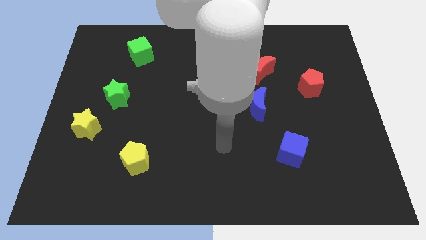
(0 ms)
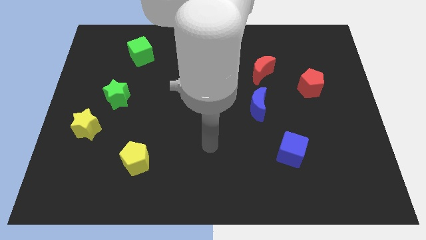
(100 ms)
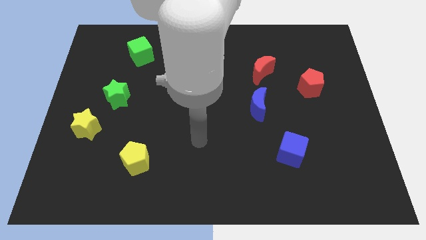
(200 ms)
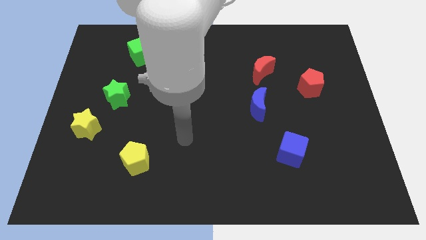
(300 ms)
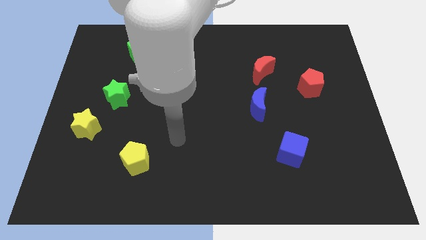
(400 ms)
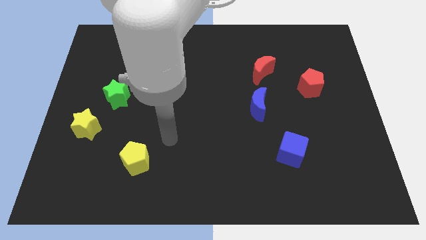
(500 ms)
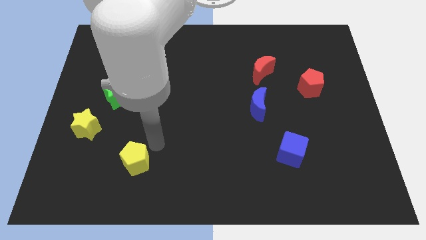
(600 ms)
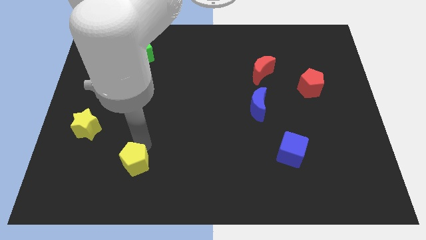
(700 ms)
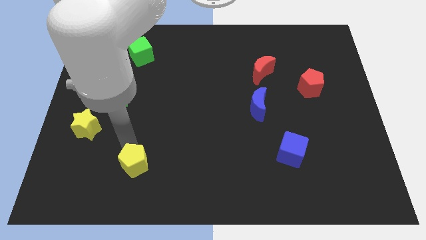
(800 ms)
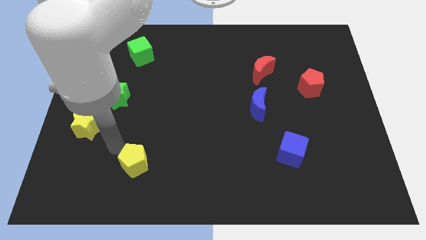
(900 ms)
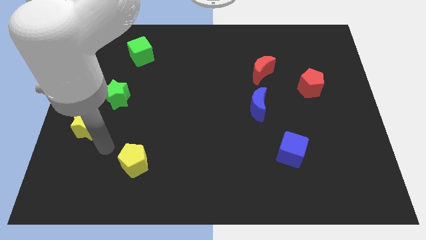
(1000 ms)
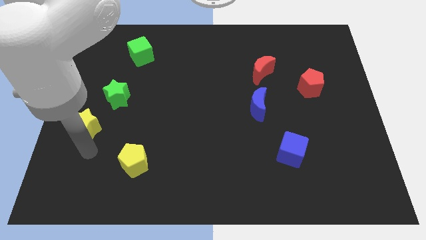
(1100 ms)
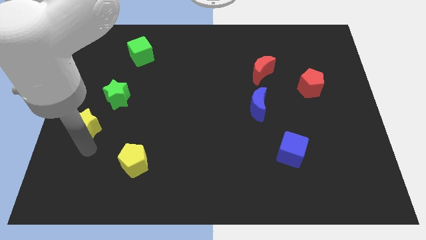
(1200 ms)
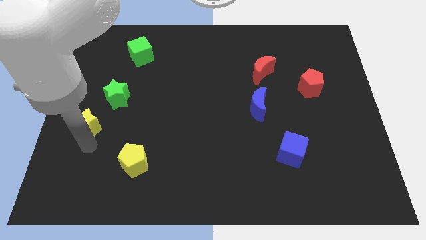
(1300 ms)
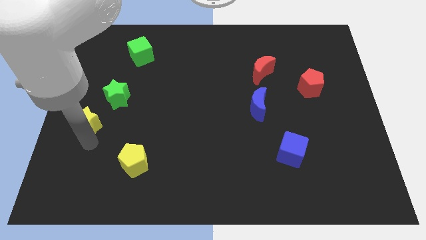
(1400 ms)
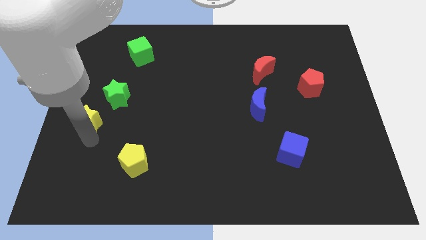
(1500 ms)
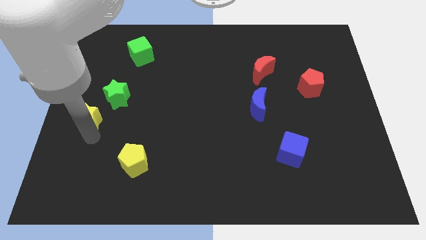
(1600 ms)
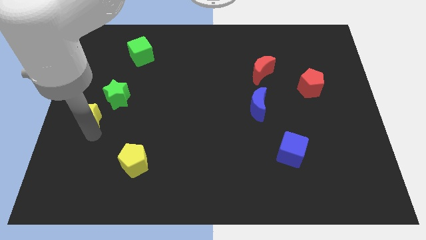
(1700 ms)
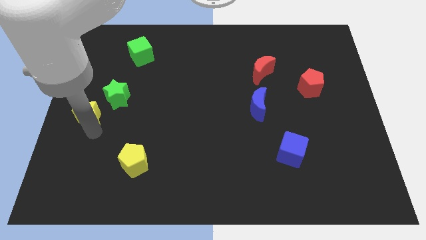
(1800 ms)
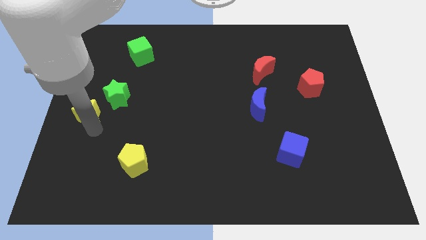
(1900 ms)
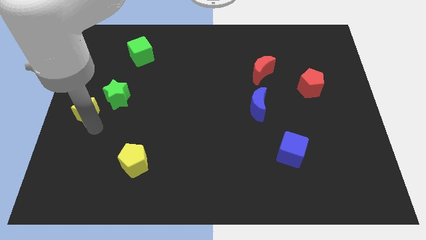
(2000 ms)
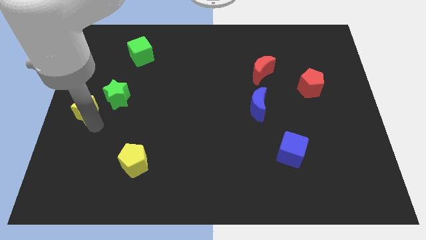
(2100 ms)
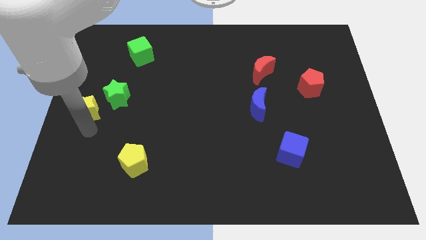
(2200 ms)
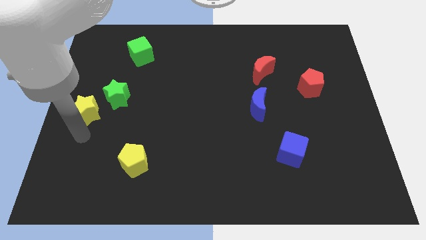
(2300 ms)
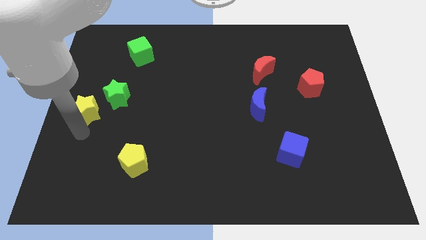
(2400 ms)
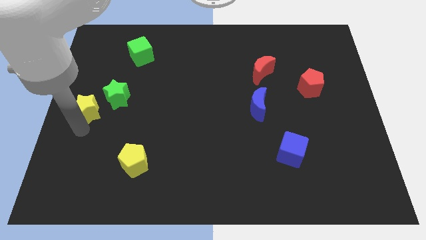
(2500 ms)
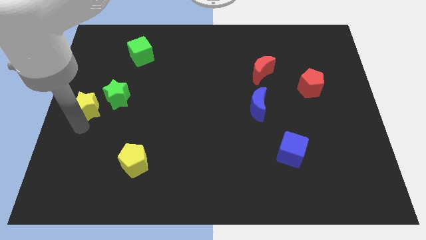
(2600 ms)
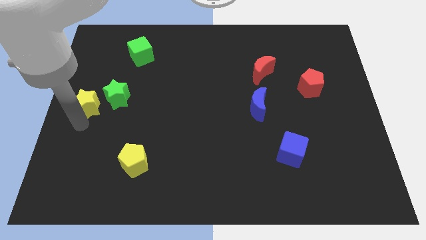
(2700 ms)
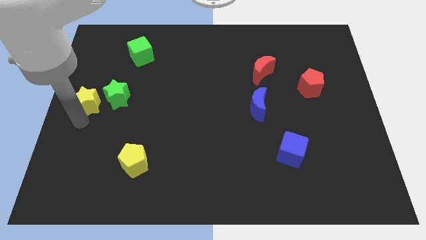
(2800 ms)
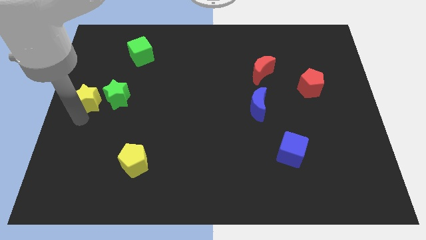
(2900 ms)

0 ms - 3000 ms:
slide the yellow star a little bit up

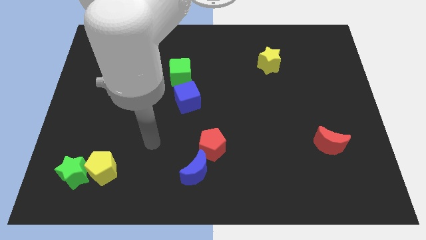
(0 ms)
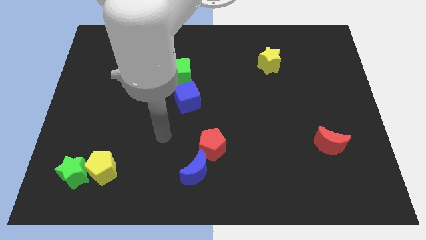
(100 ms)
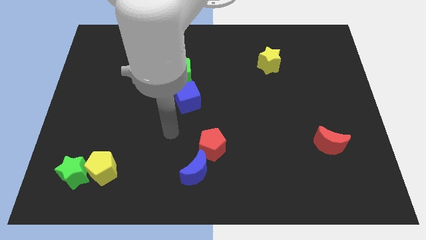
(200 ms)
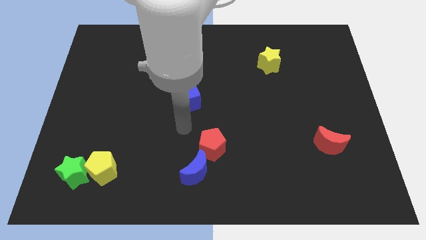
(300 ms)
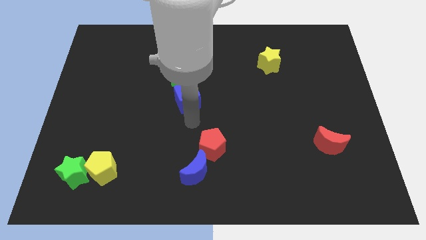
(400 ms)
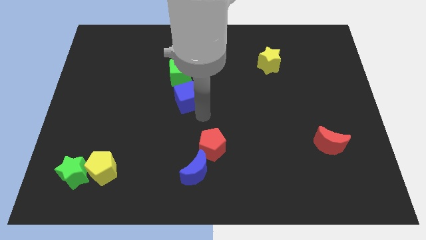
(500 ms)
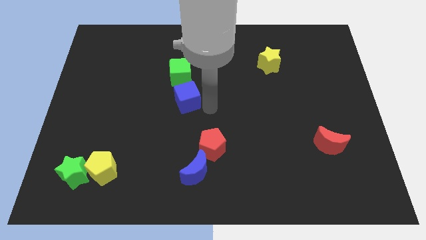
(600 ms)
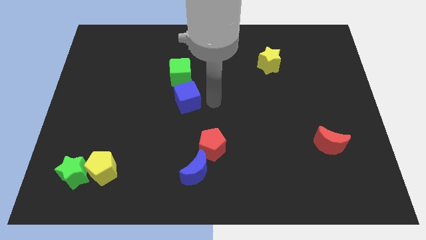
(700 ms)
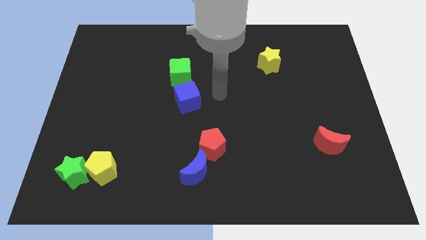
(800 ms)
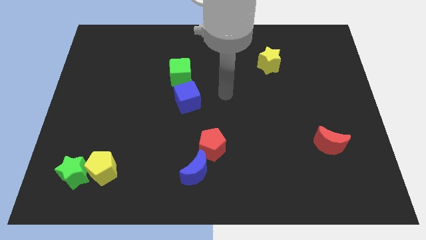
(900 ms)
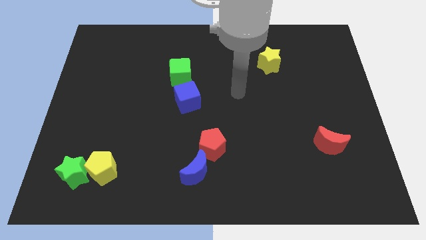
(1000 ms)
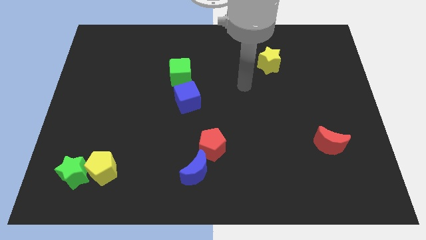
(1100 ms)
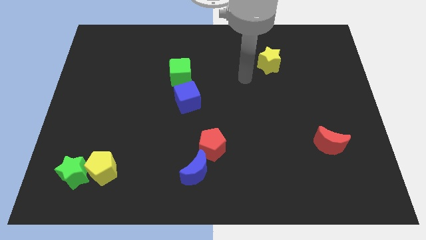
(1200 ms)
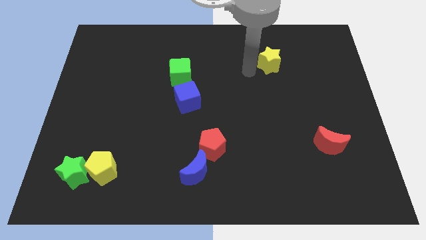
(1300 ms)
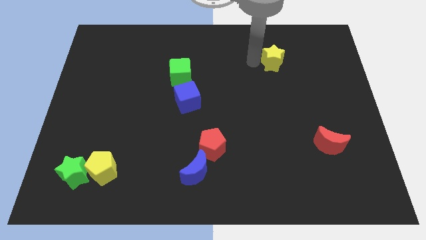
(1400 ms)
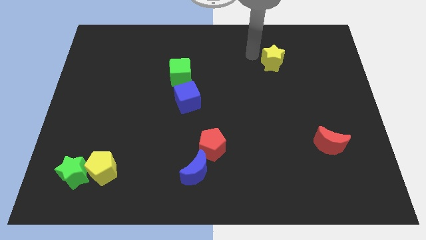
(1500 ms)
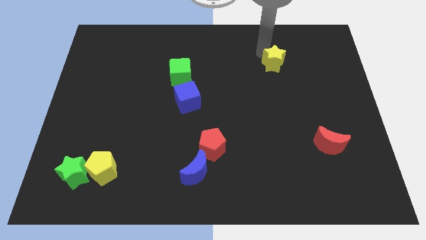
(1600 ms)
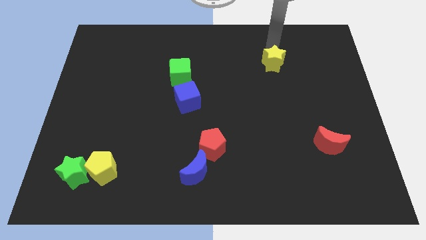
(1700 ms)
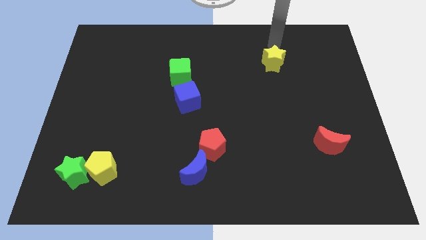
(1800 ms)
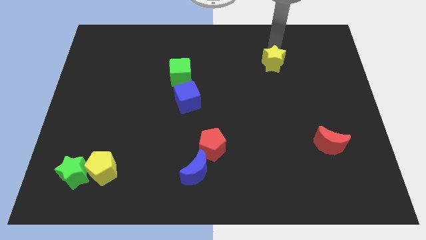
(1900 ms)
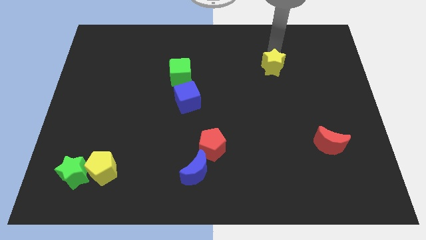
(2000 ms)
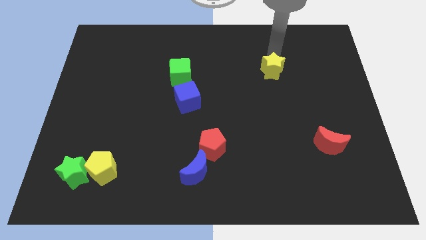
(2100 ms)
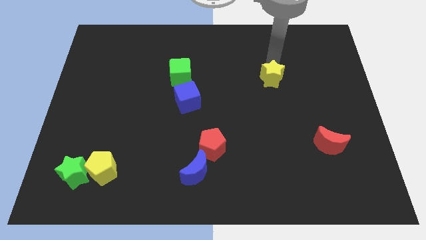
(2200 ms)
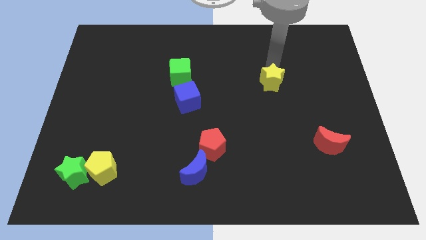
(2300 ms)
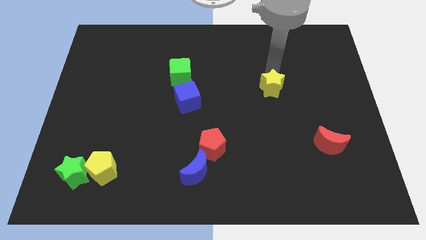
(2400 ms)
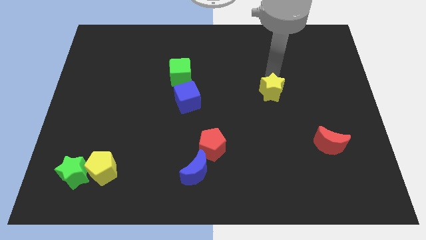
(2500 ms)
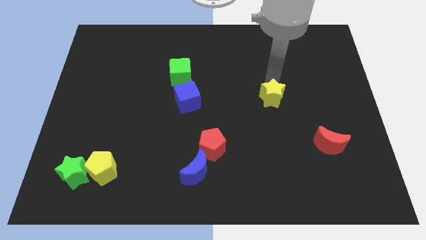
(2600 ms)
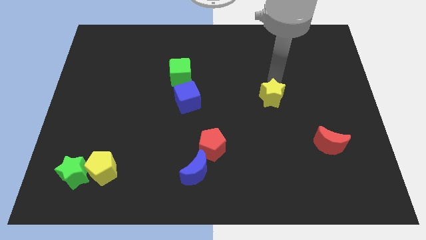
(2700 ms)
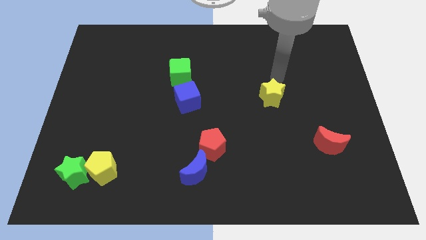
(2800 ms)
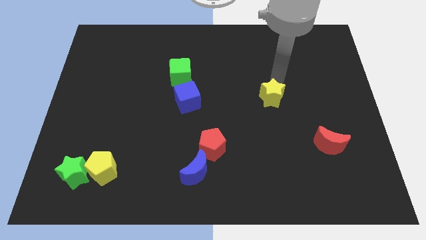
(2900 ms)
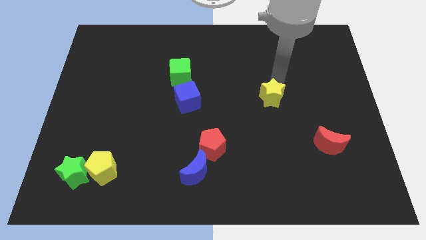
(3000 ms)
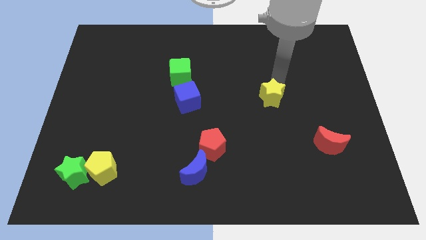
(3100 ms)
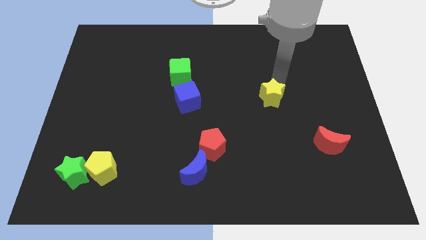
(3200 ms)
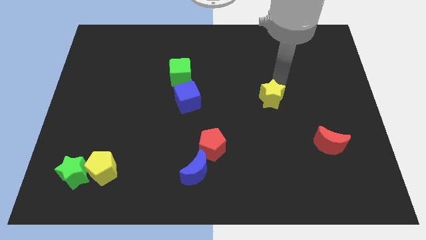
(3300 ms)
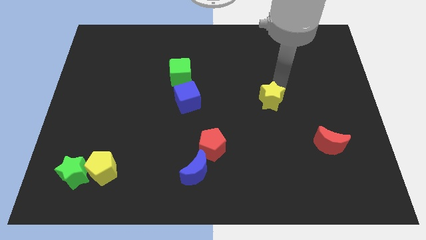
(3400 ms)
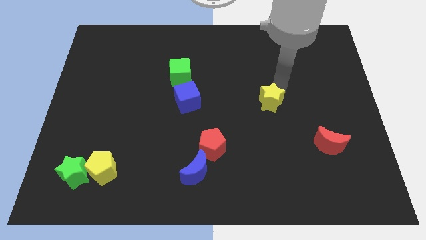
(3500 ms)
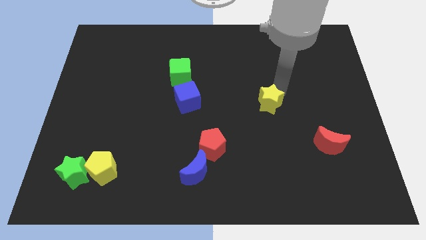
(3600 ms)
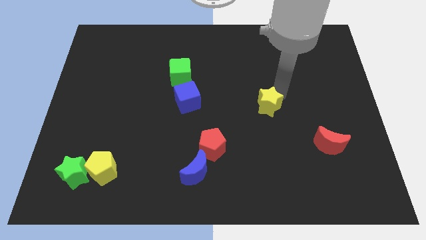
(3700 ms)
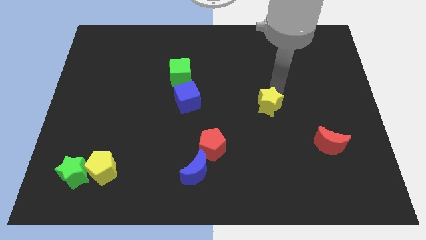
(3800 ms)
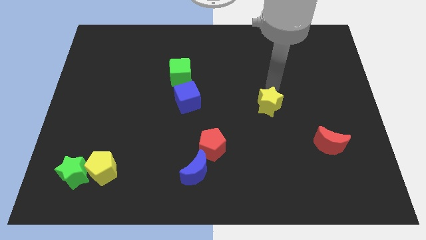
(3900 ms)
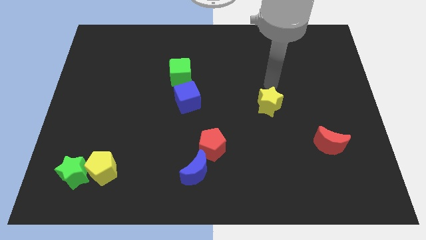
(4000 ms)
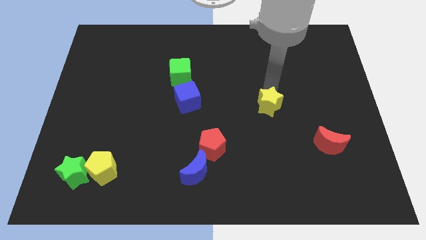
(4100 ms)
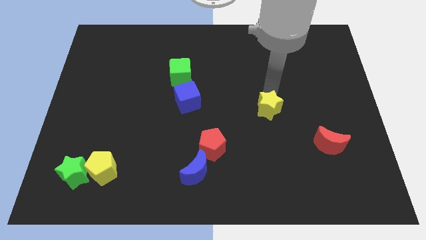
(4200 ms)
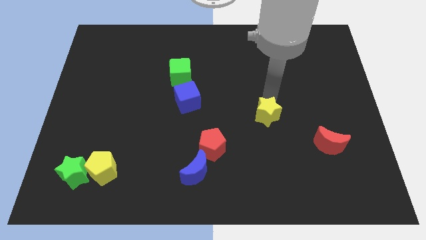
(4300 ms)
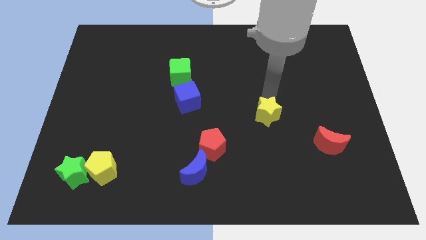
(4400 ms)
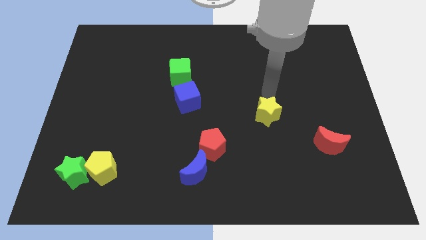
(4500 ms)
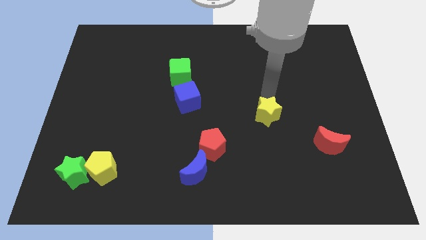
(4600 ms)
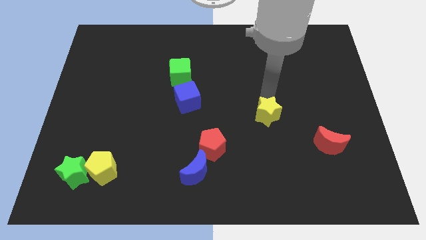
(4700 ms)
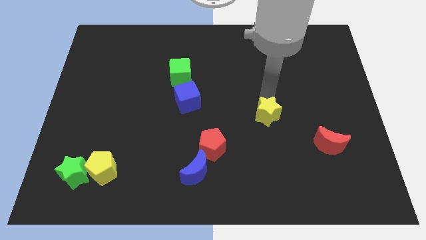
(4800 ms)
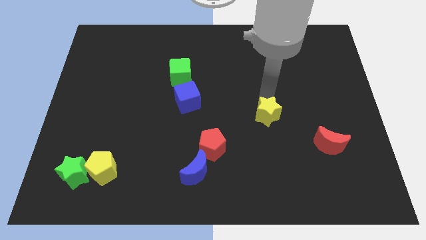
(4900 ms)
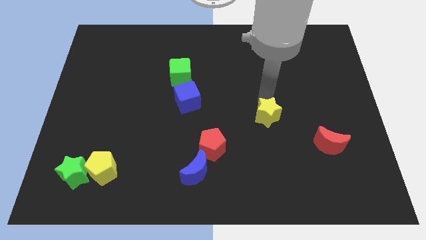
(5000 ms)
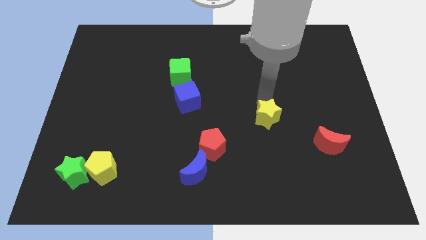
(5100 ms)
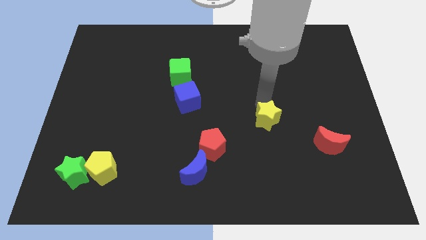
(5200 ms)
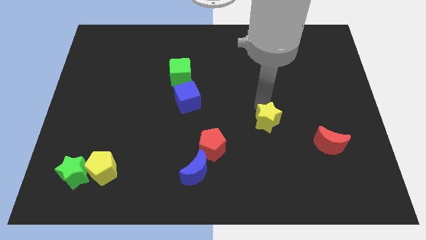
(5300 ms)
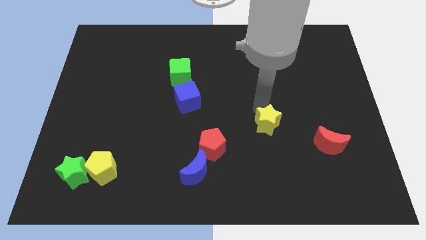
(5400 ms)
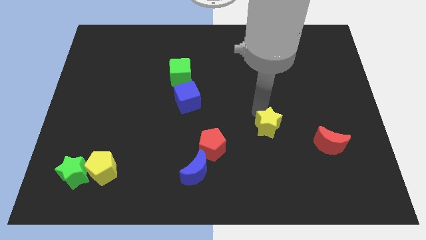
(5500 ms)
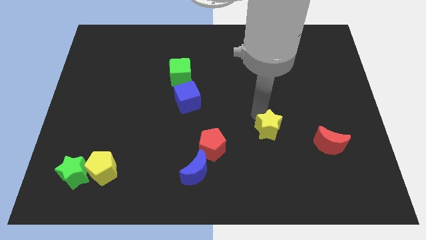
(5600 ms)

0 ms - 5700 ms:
move the yellow star downwards
